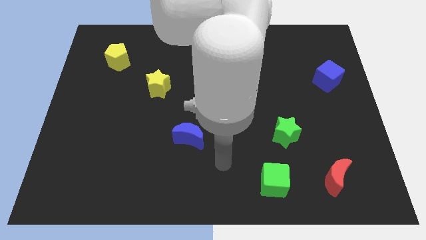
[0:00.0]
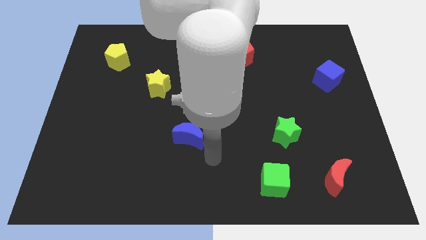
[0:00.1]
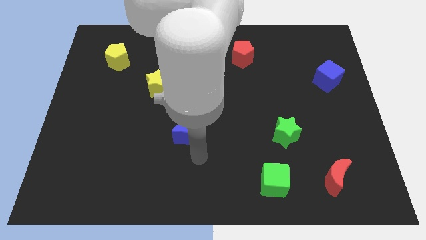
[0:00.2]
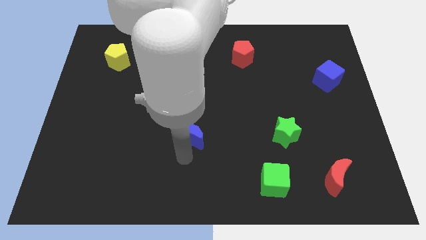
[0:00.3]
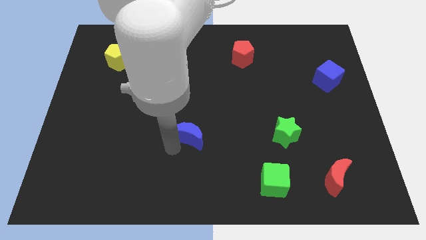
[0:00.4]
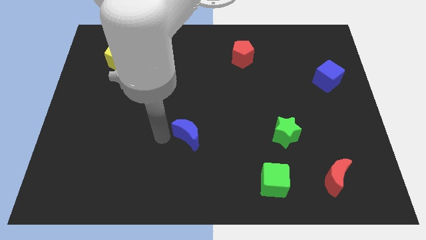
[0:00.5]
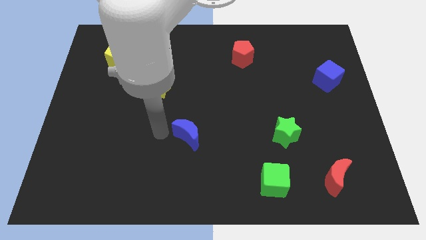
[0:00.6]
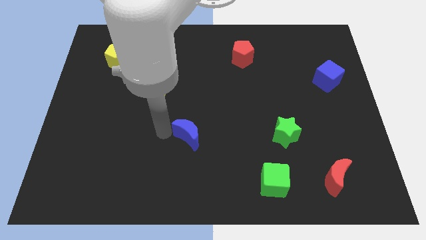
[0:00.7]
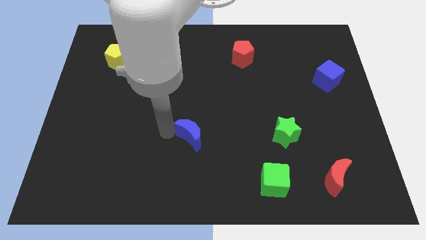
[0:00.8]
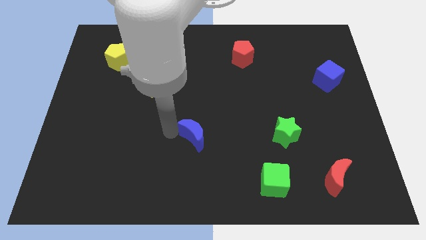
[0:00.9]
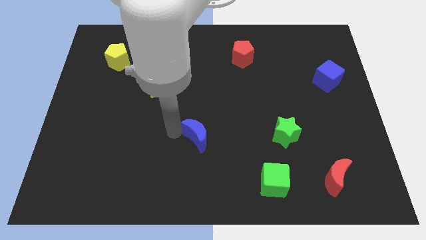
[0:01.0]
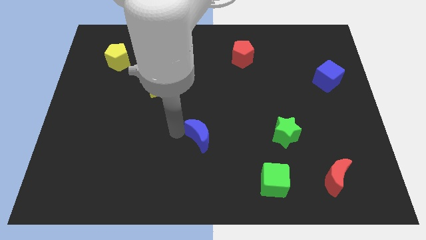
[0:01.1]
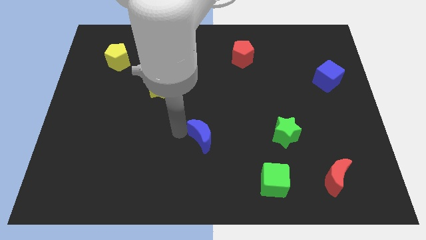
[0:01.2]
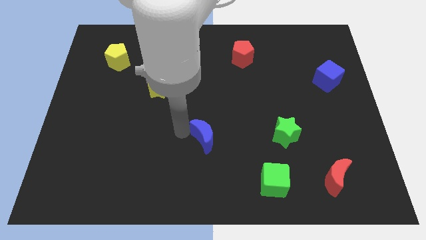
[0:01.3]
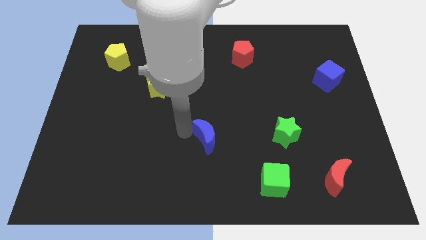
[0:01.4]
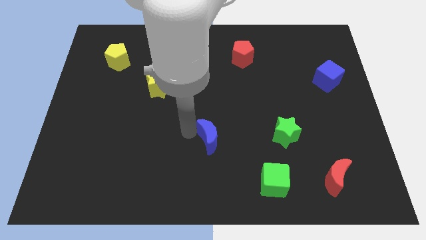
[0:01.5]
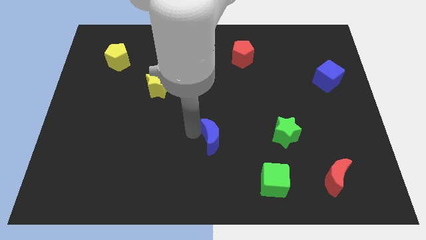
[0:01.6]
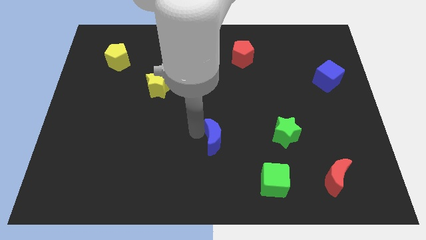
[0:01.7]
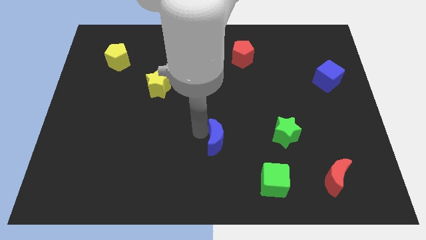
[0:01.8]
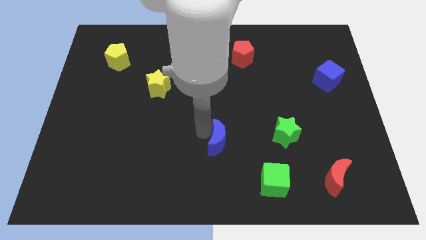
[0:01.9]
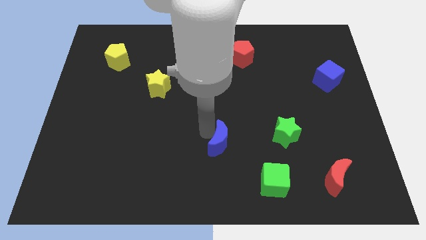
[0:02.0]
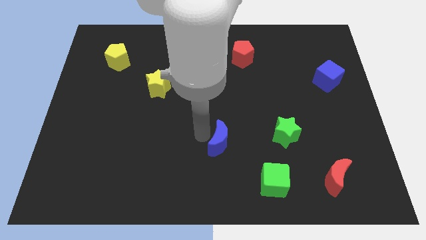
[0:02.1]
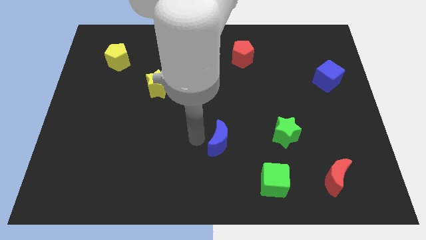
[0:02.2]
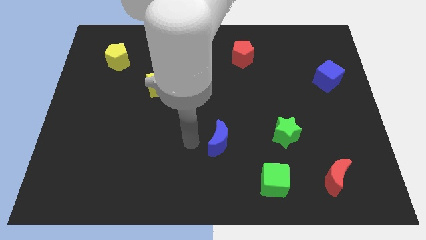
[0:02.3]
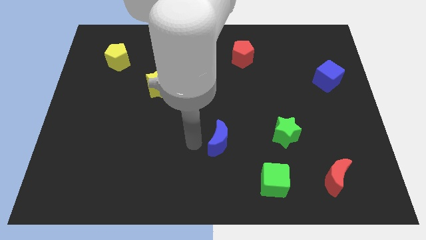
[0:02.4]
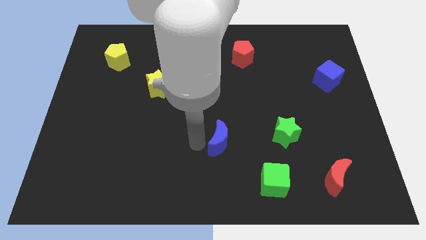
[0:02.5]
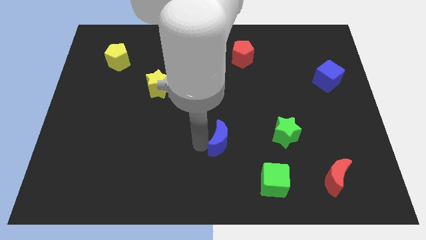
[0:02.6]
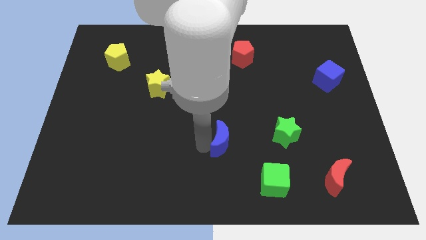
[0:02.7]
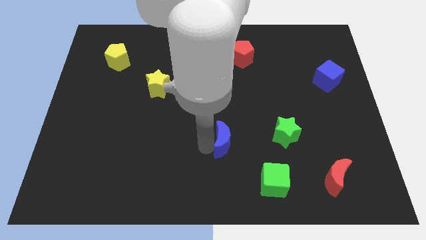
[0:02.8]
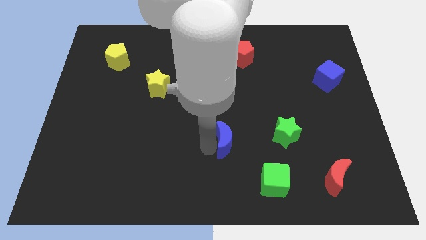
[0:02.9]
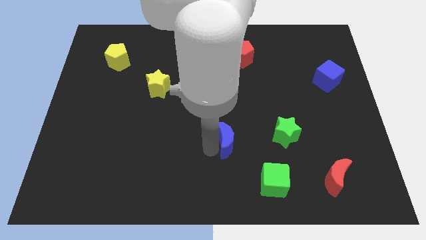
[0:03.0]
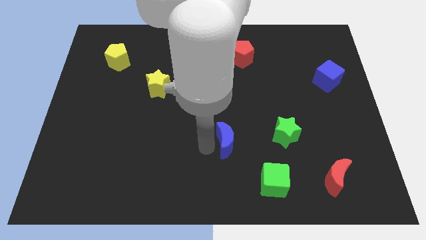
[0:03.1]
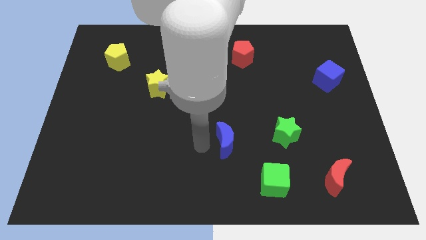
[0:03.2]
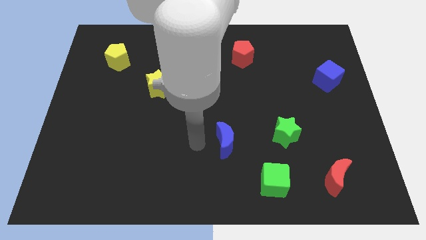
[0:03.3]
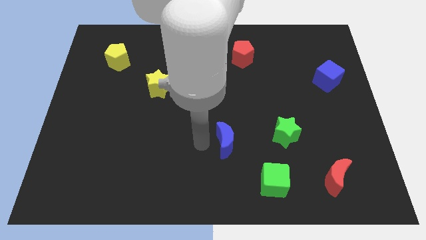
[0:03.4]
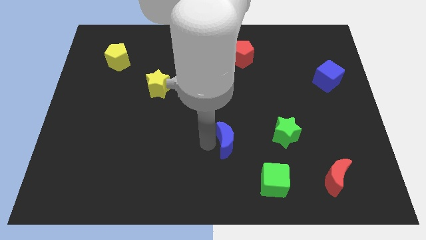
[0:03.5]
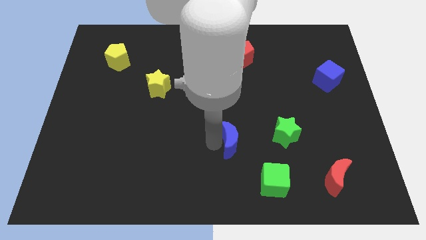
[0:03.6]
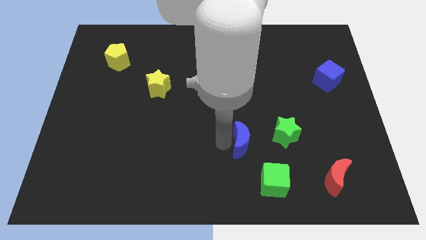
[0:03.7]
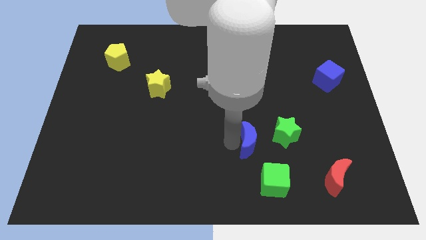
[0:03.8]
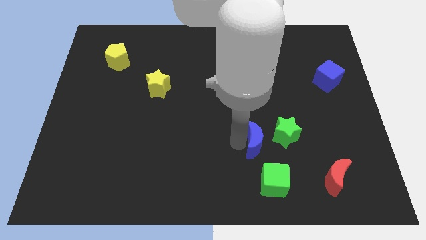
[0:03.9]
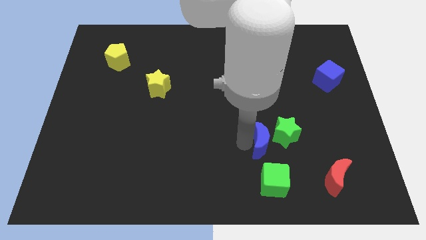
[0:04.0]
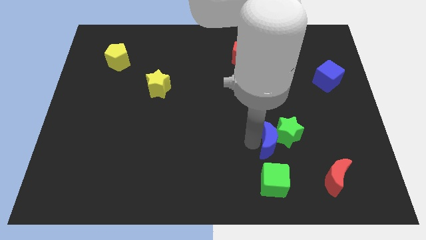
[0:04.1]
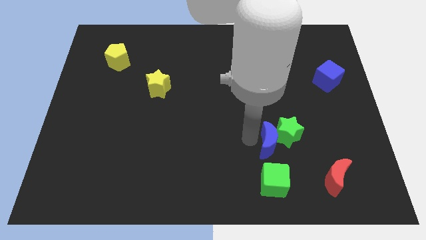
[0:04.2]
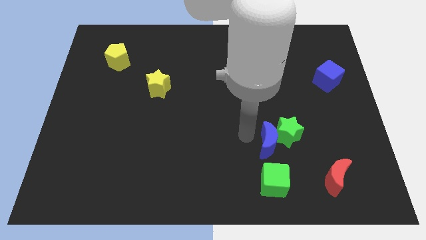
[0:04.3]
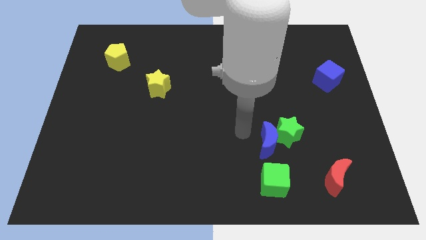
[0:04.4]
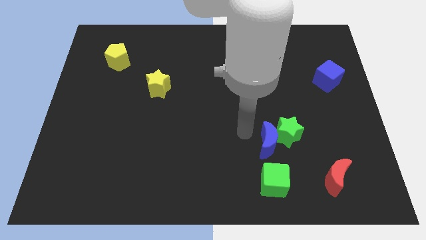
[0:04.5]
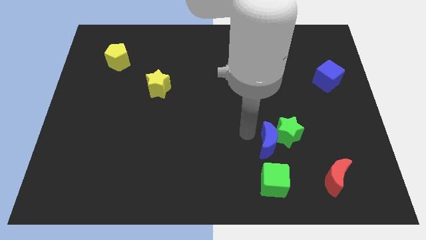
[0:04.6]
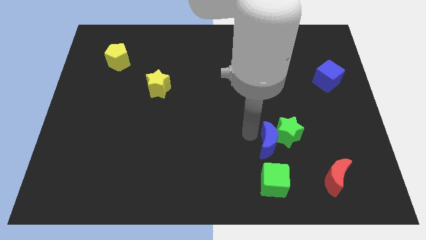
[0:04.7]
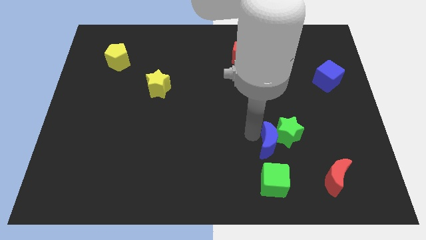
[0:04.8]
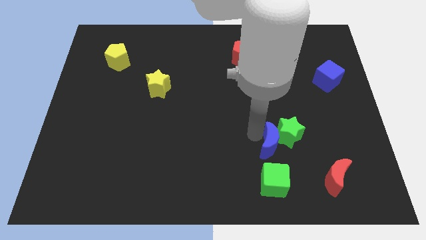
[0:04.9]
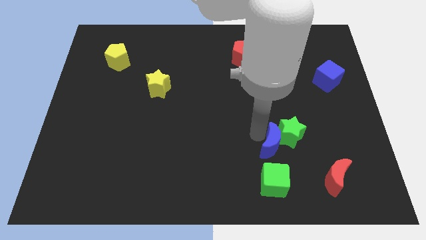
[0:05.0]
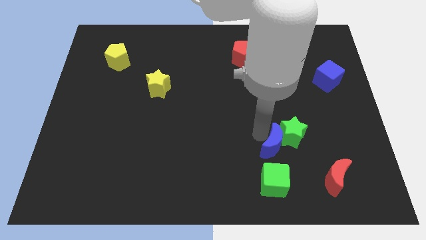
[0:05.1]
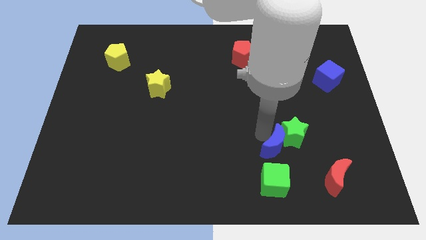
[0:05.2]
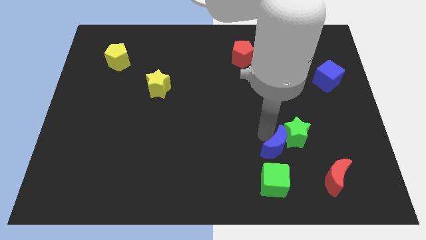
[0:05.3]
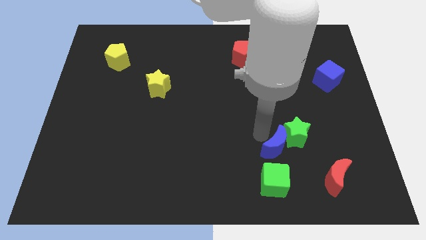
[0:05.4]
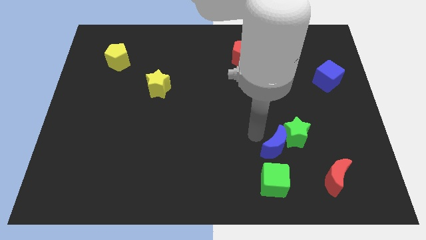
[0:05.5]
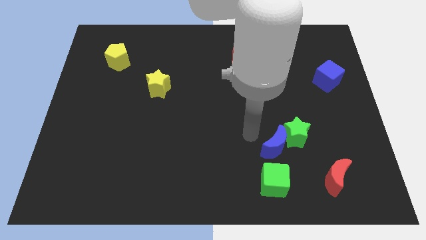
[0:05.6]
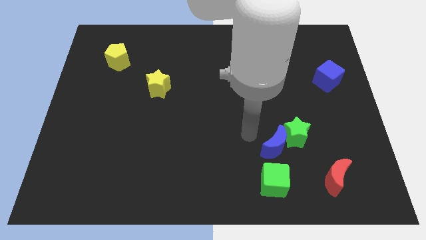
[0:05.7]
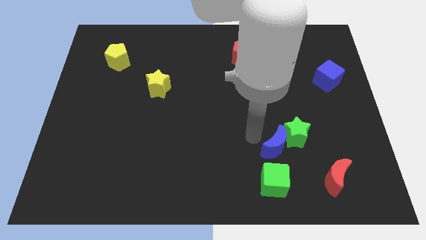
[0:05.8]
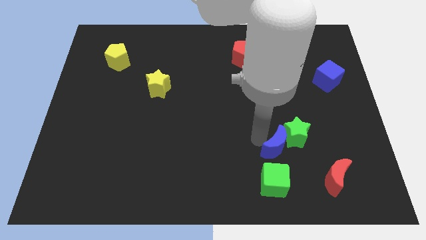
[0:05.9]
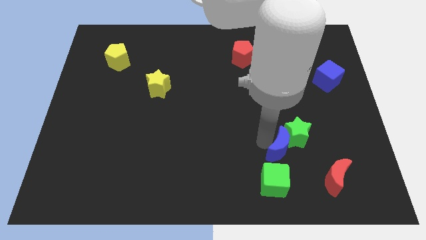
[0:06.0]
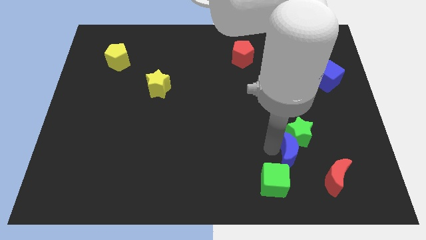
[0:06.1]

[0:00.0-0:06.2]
slide the blue moon to the right

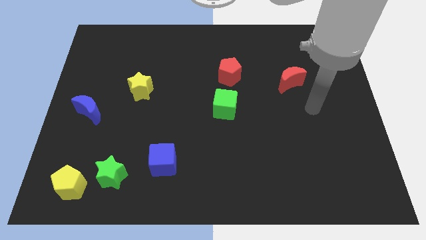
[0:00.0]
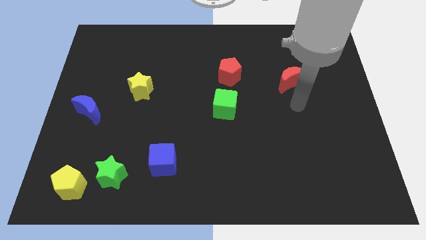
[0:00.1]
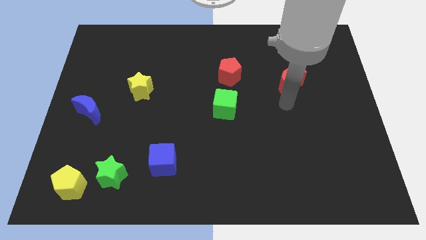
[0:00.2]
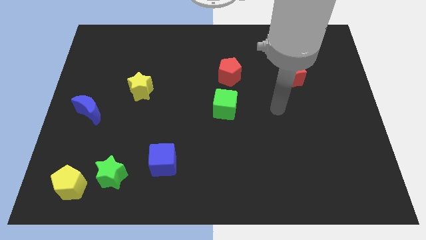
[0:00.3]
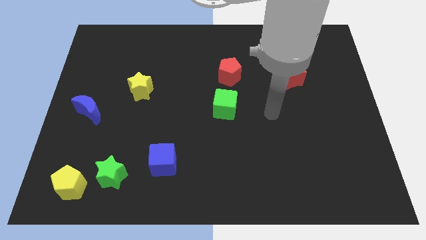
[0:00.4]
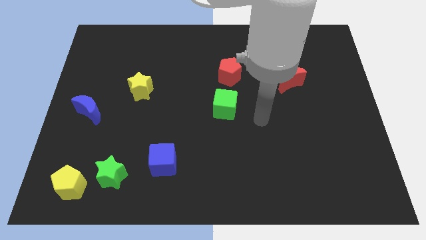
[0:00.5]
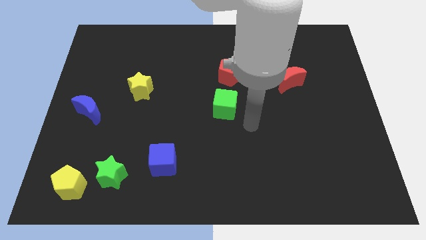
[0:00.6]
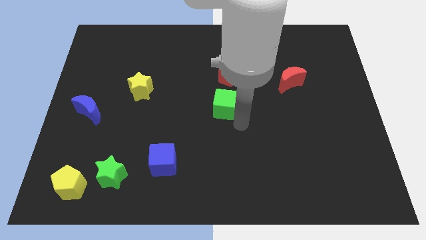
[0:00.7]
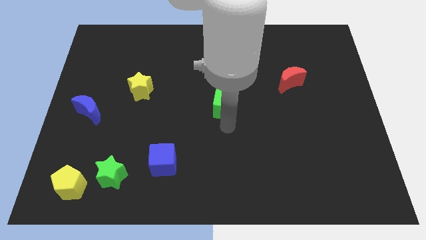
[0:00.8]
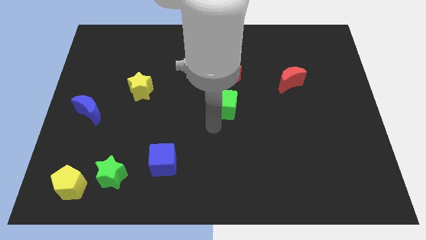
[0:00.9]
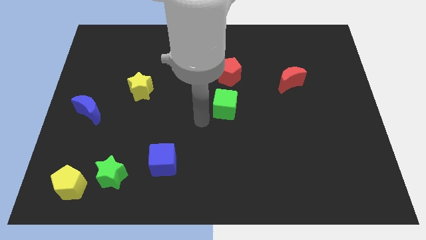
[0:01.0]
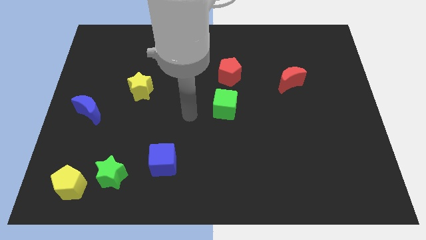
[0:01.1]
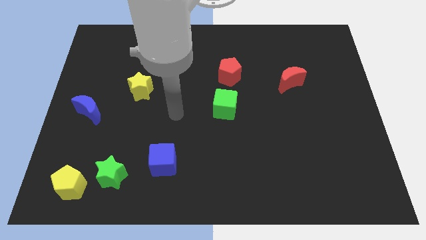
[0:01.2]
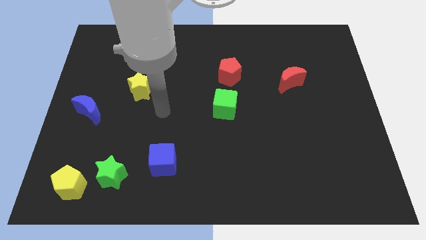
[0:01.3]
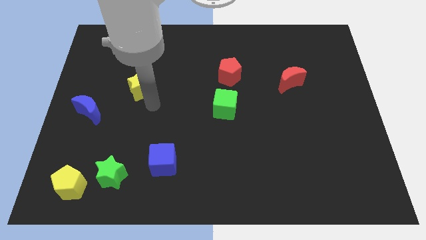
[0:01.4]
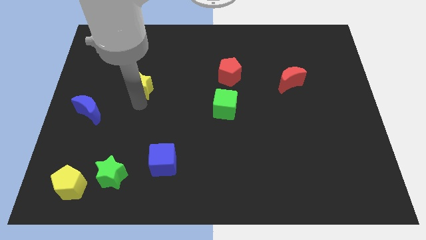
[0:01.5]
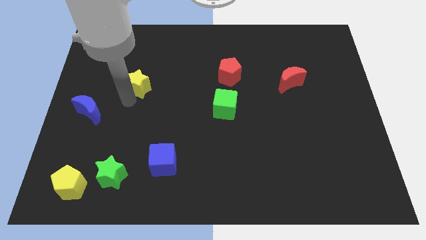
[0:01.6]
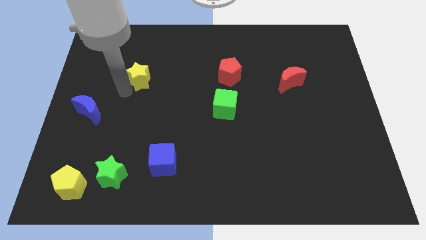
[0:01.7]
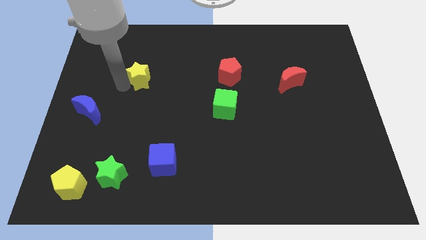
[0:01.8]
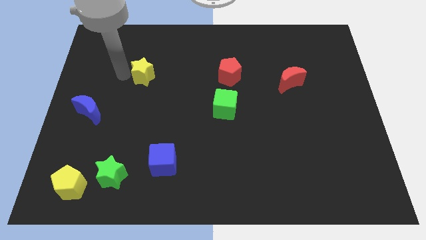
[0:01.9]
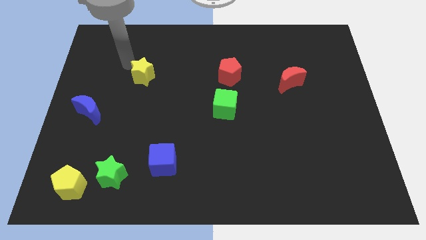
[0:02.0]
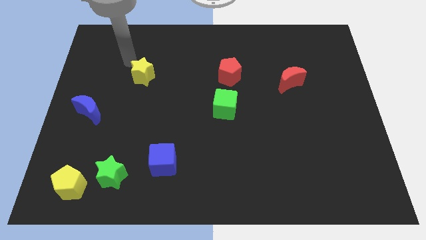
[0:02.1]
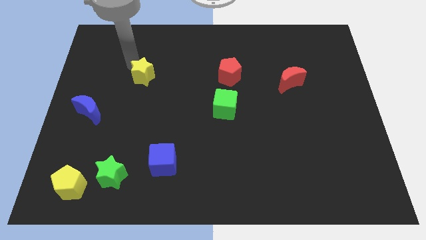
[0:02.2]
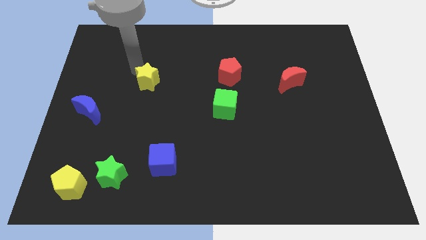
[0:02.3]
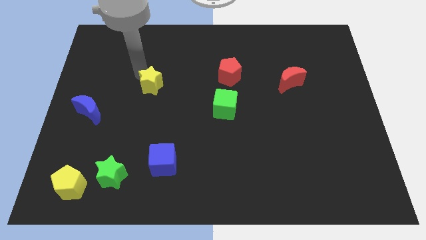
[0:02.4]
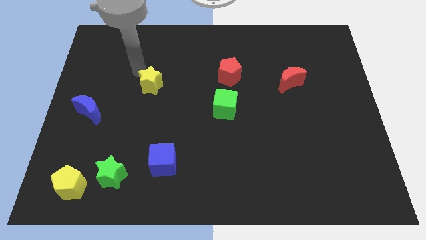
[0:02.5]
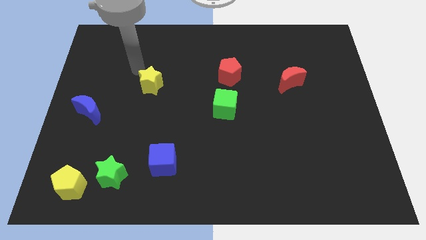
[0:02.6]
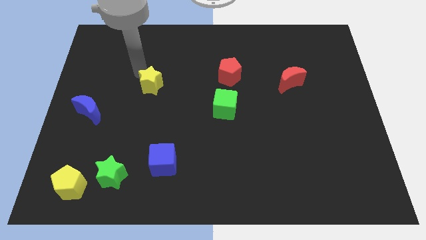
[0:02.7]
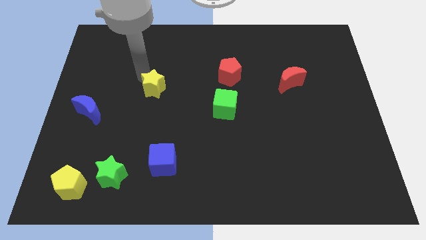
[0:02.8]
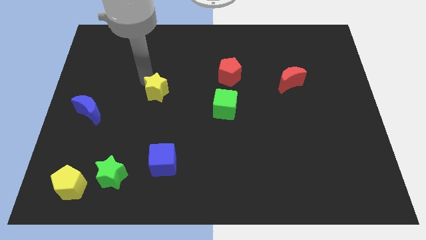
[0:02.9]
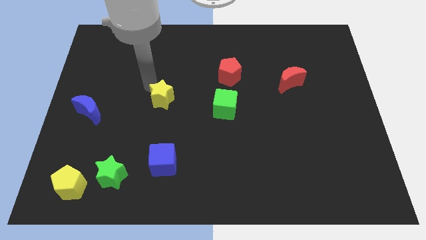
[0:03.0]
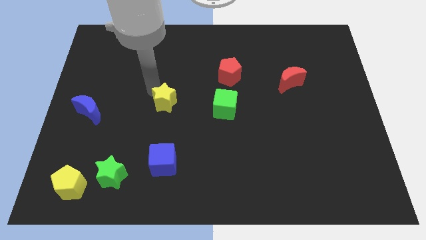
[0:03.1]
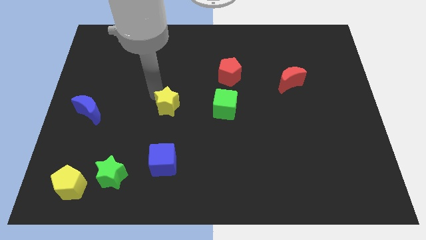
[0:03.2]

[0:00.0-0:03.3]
push the yellow star a little diagonally down and to the right
